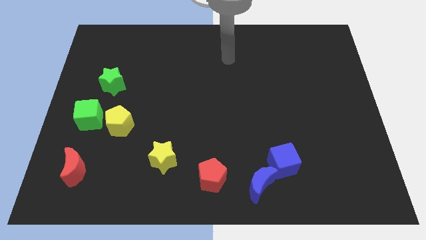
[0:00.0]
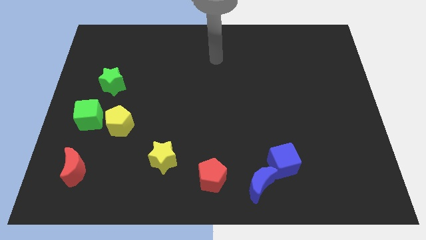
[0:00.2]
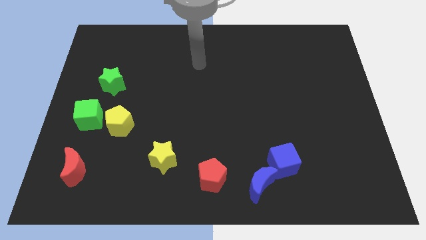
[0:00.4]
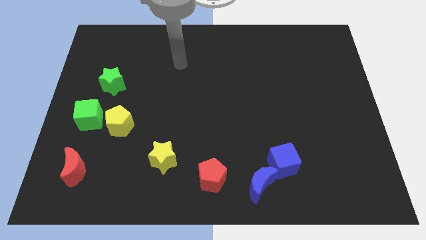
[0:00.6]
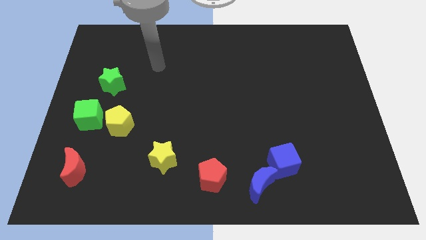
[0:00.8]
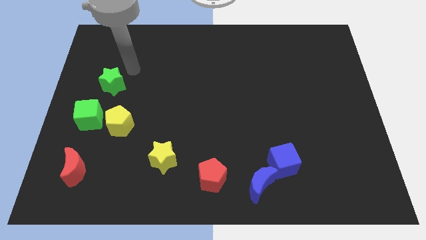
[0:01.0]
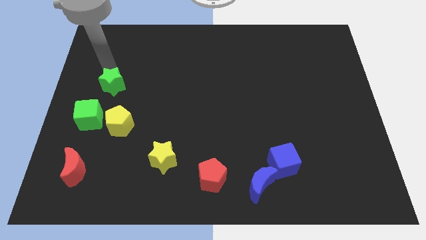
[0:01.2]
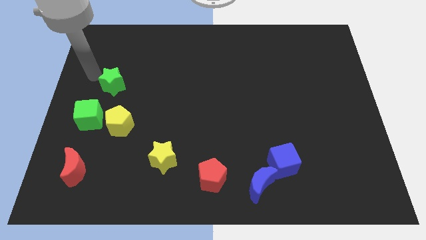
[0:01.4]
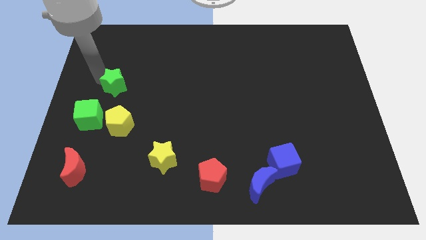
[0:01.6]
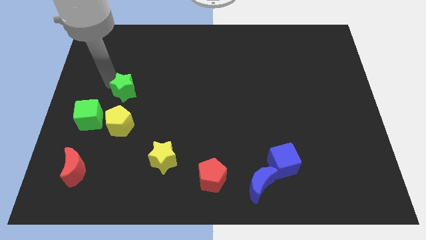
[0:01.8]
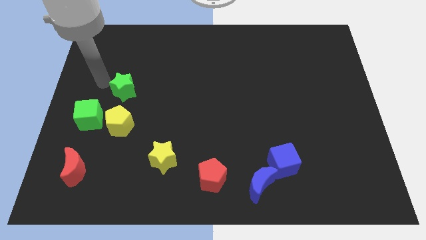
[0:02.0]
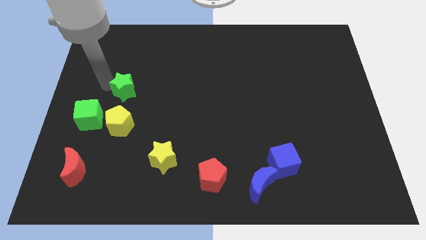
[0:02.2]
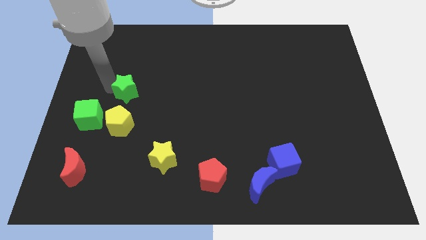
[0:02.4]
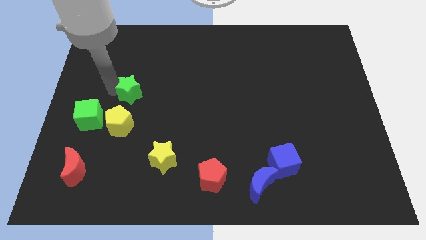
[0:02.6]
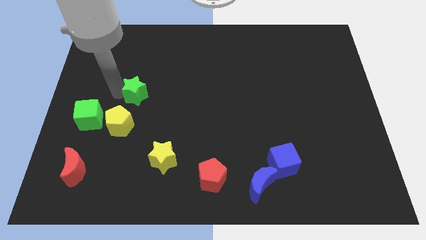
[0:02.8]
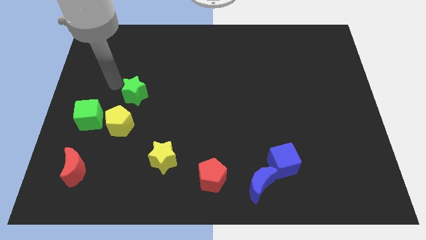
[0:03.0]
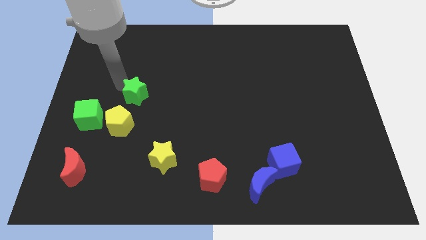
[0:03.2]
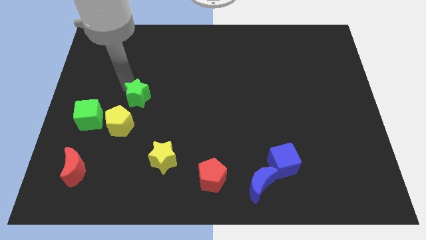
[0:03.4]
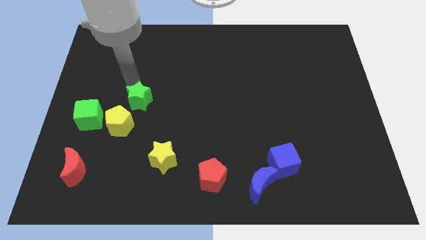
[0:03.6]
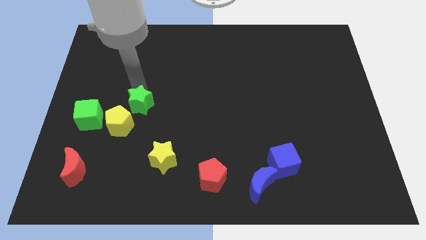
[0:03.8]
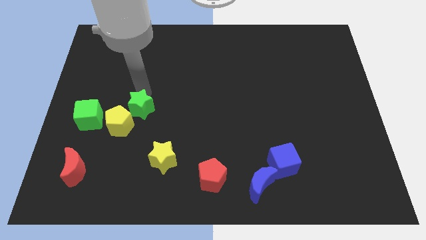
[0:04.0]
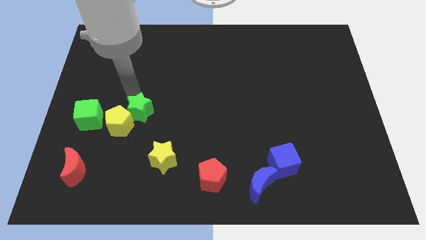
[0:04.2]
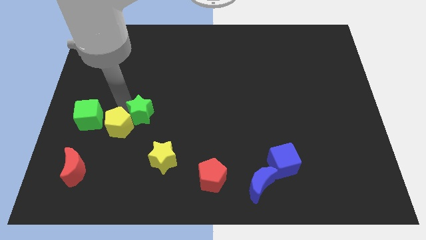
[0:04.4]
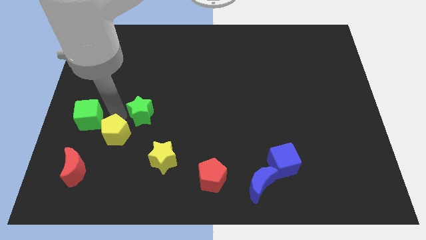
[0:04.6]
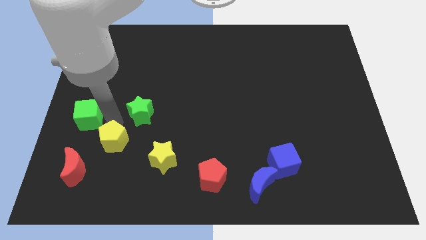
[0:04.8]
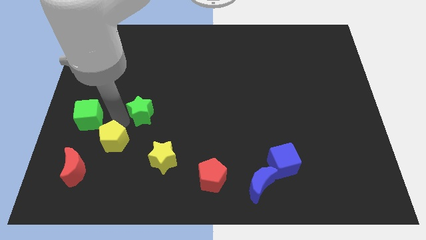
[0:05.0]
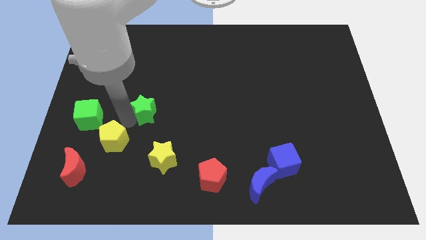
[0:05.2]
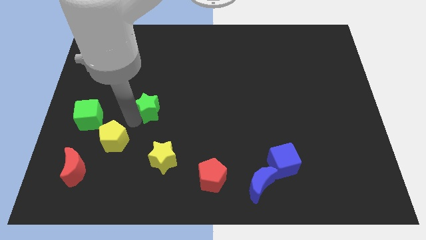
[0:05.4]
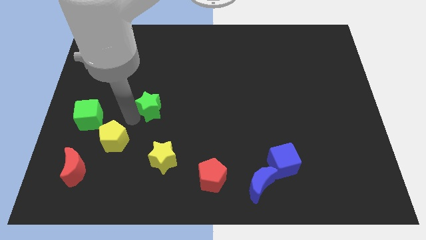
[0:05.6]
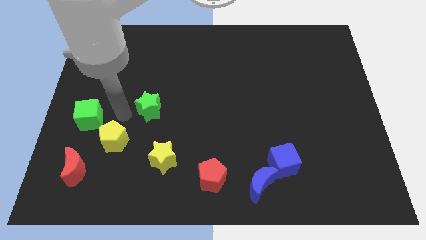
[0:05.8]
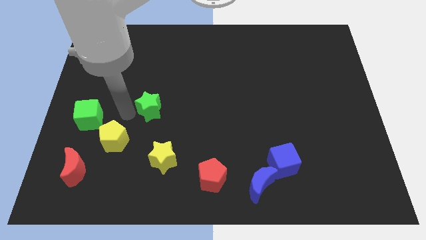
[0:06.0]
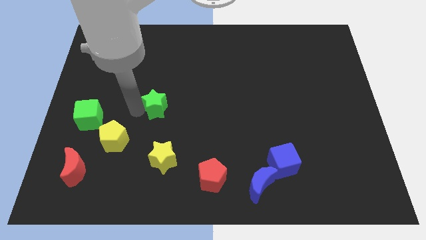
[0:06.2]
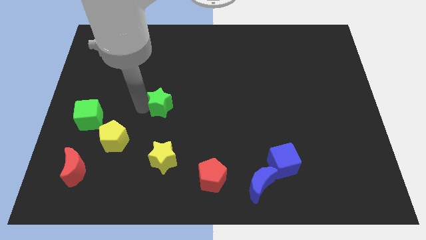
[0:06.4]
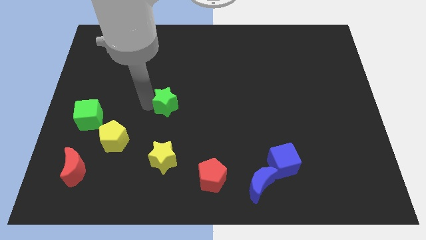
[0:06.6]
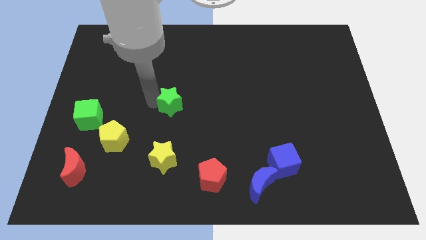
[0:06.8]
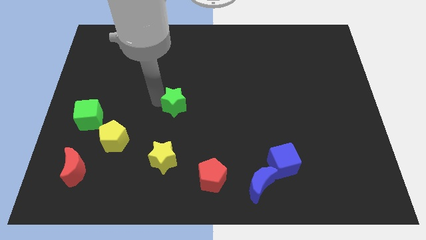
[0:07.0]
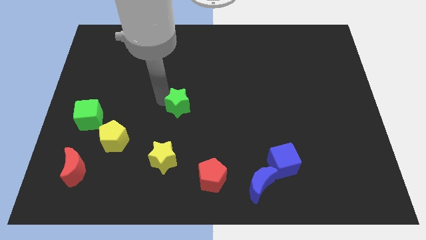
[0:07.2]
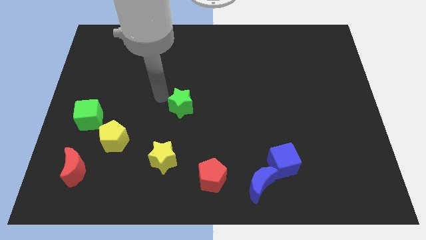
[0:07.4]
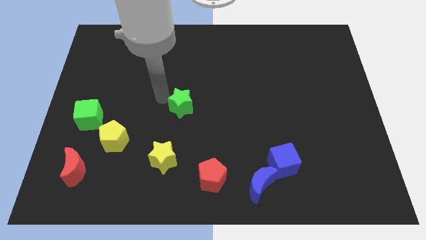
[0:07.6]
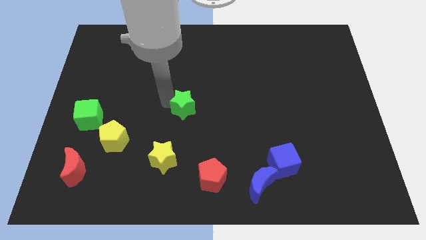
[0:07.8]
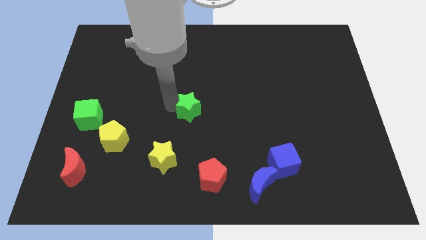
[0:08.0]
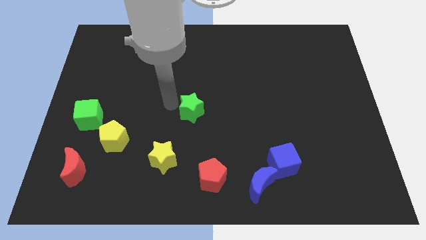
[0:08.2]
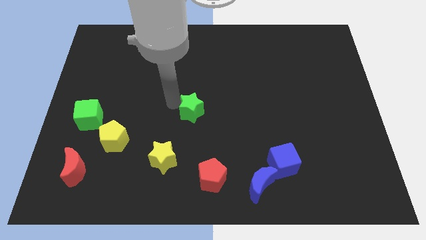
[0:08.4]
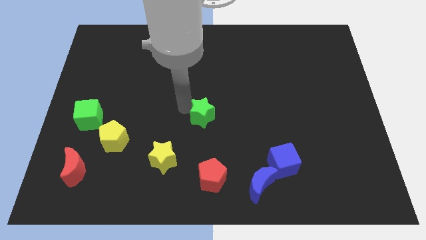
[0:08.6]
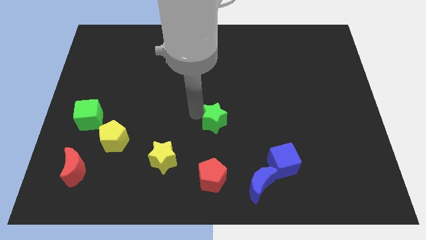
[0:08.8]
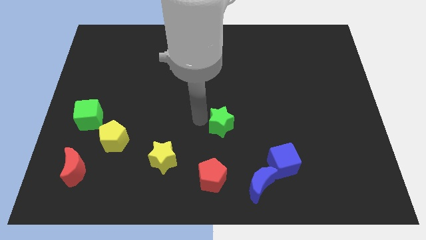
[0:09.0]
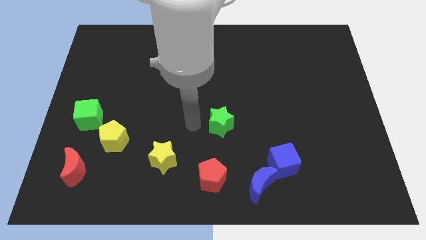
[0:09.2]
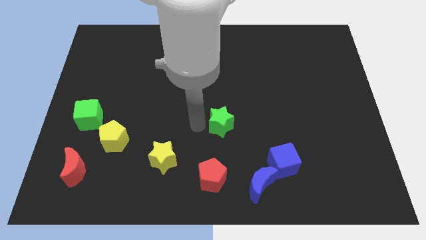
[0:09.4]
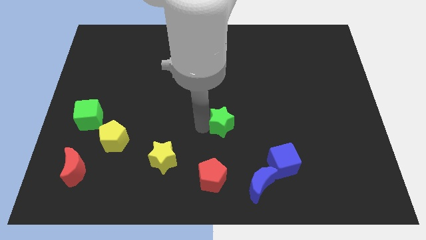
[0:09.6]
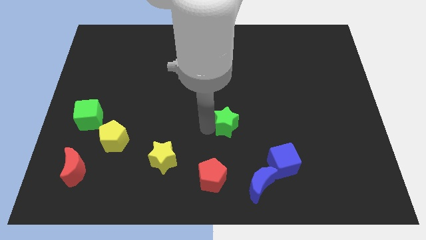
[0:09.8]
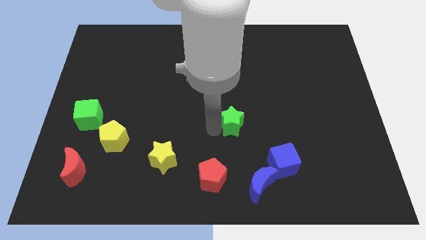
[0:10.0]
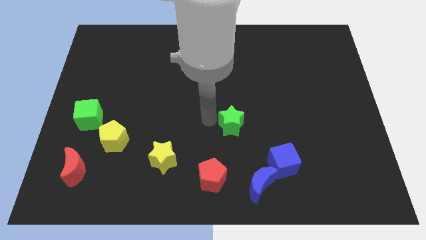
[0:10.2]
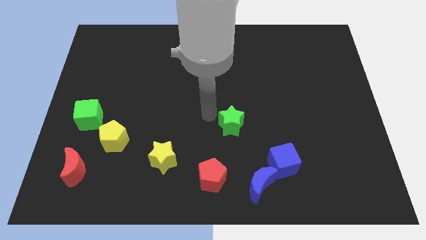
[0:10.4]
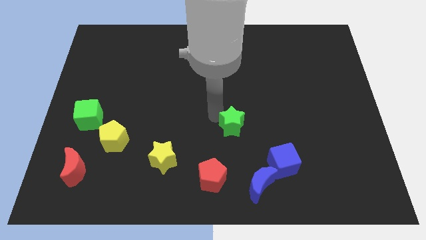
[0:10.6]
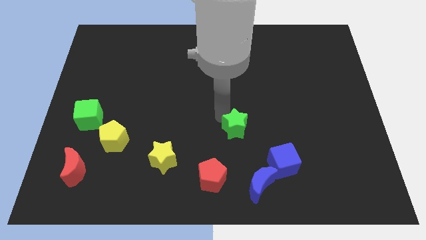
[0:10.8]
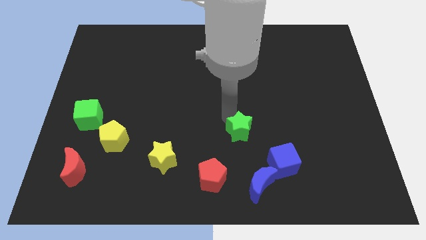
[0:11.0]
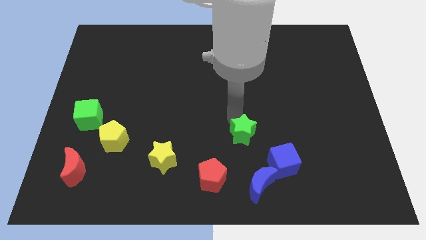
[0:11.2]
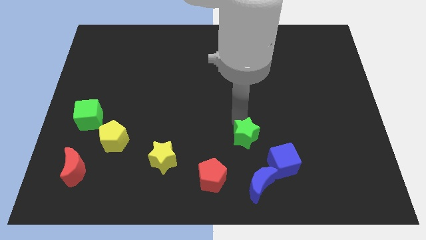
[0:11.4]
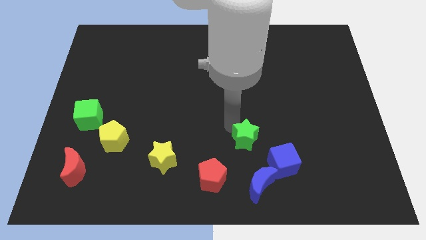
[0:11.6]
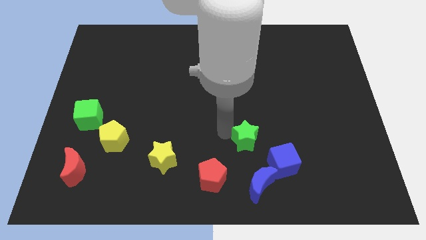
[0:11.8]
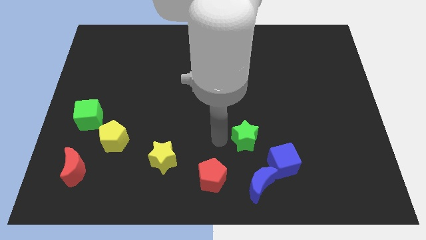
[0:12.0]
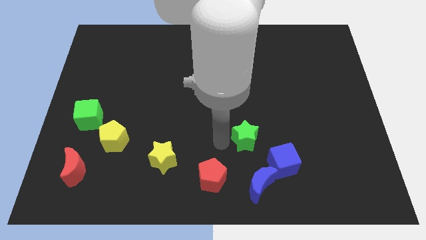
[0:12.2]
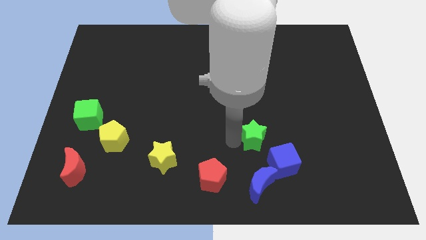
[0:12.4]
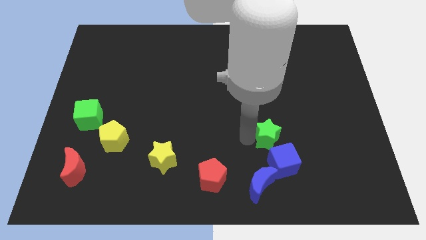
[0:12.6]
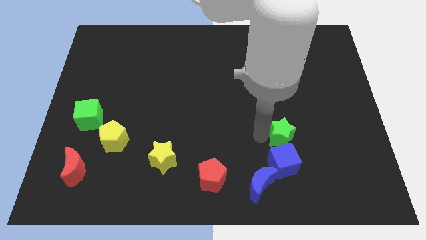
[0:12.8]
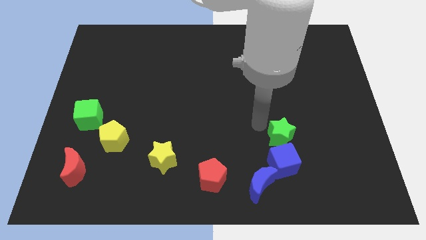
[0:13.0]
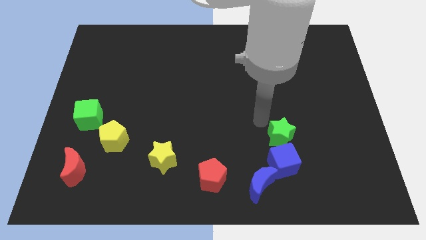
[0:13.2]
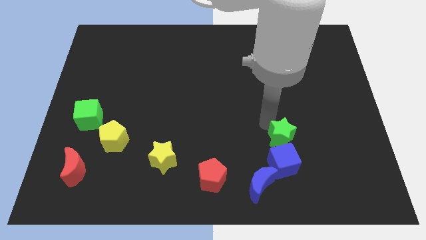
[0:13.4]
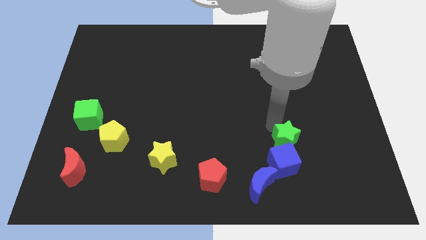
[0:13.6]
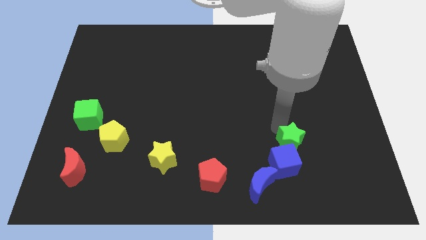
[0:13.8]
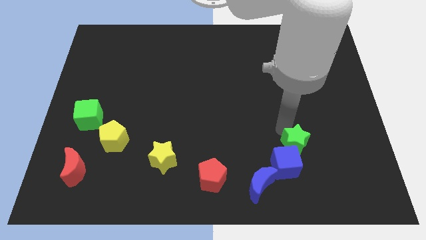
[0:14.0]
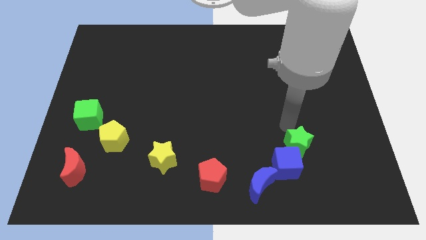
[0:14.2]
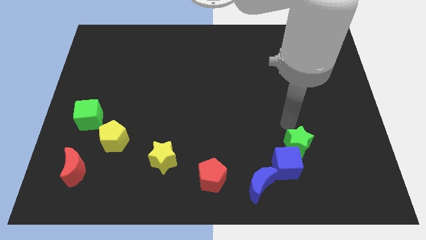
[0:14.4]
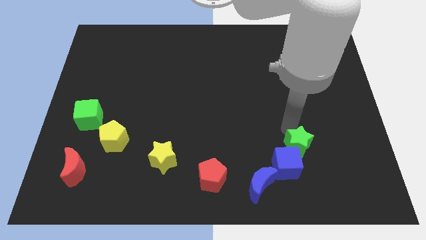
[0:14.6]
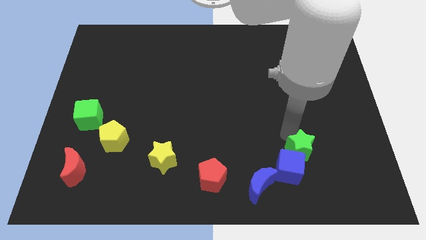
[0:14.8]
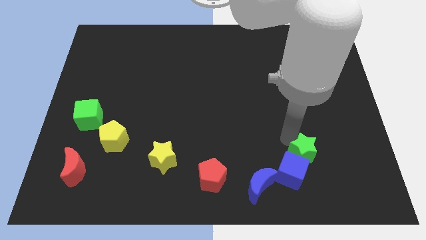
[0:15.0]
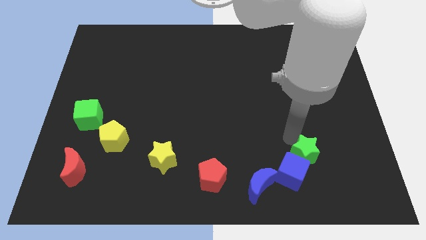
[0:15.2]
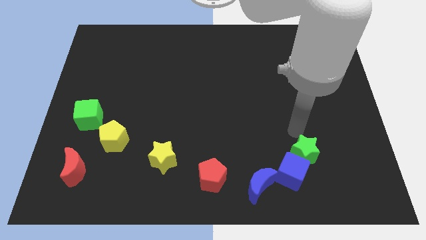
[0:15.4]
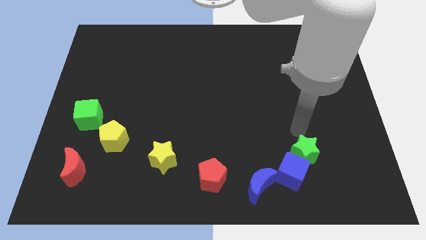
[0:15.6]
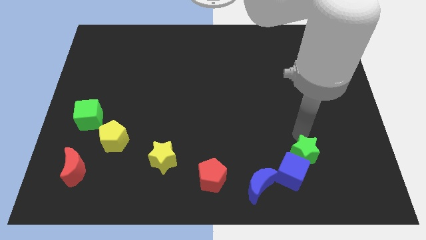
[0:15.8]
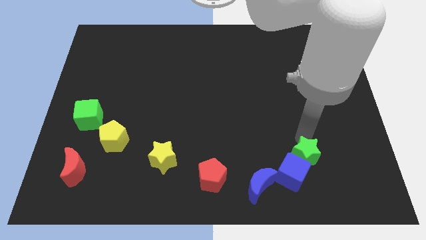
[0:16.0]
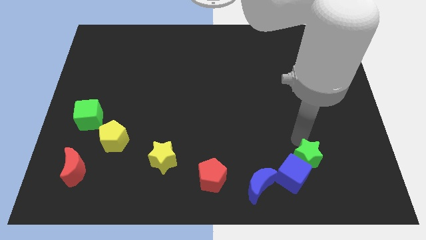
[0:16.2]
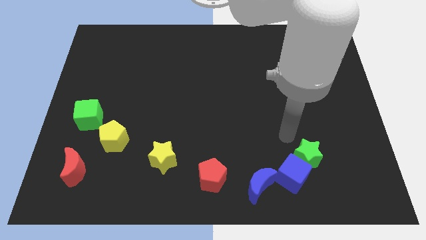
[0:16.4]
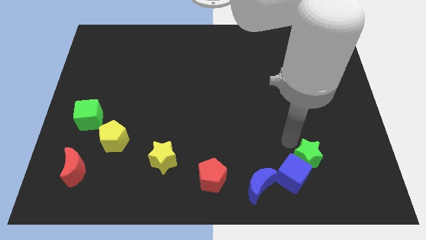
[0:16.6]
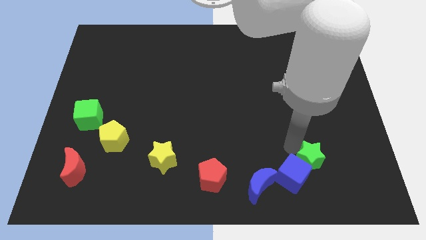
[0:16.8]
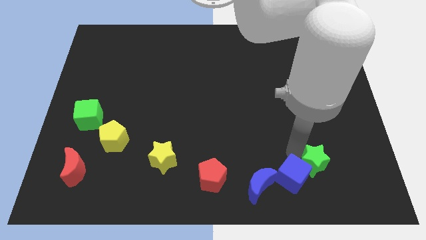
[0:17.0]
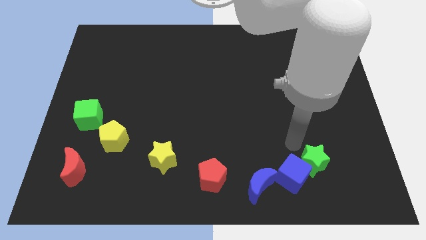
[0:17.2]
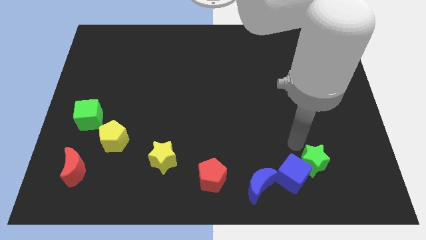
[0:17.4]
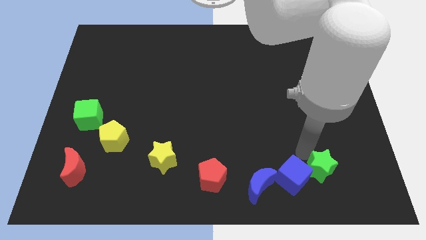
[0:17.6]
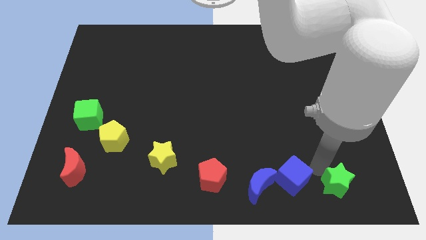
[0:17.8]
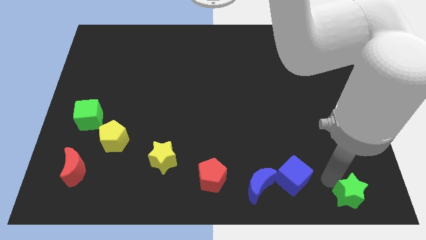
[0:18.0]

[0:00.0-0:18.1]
push the green star to the bottom right corner
